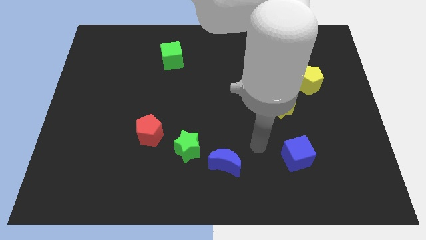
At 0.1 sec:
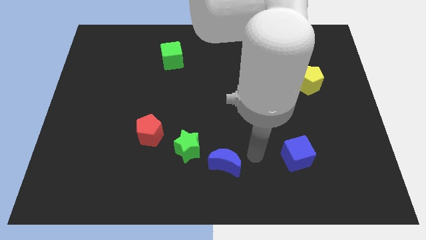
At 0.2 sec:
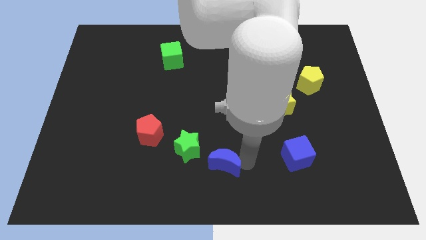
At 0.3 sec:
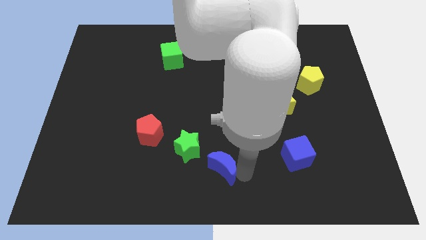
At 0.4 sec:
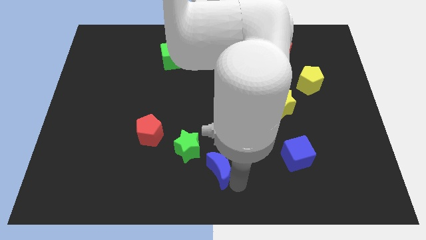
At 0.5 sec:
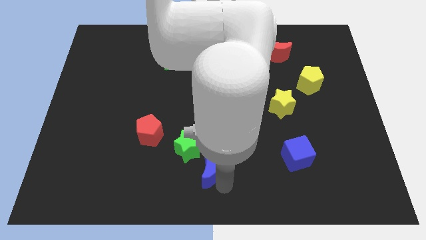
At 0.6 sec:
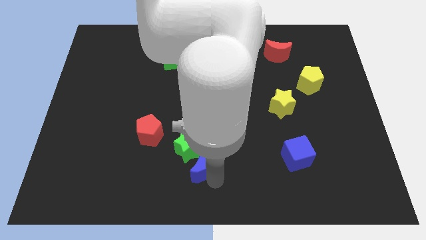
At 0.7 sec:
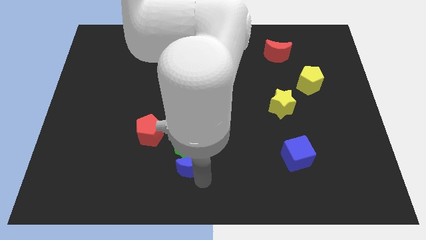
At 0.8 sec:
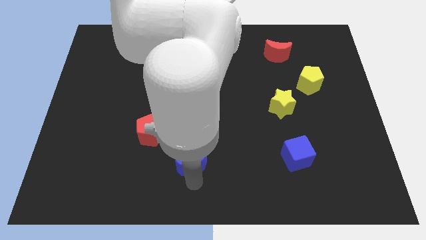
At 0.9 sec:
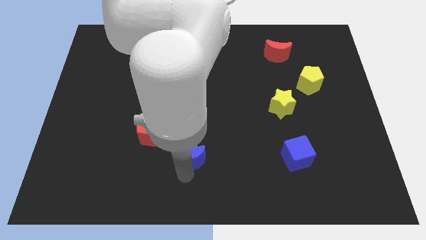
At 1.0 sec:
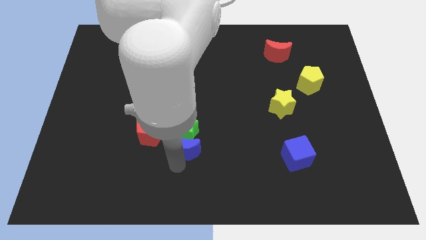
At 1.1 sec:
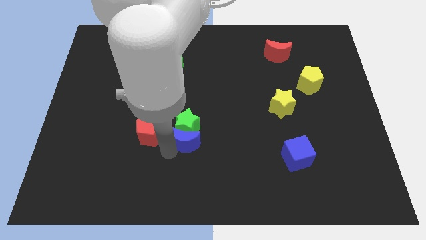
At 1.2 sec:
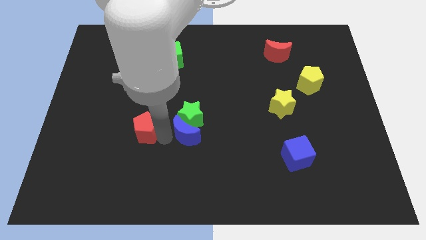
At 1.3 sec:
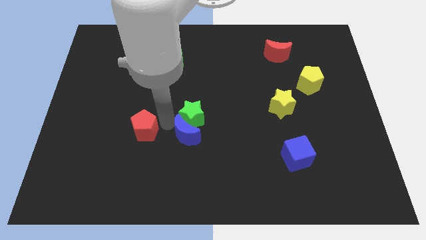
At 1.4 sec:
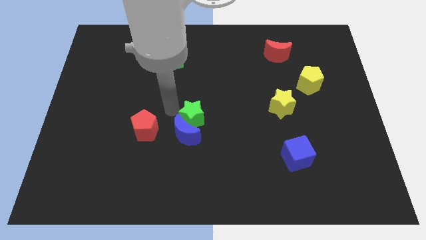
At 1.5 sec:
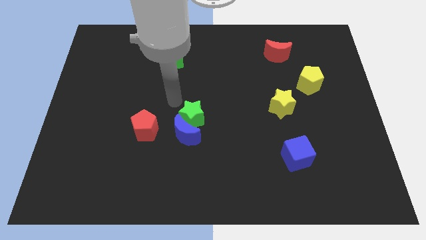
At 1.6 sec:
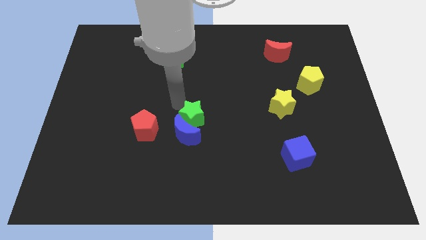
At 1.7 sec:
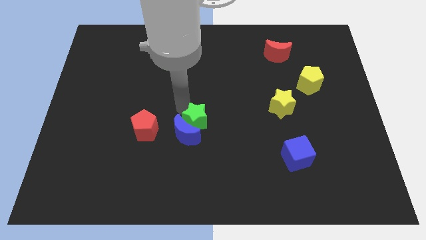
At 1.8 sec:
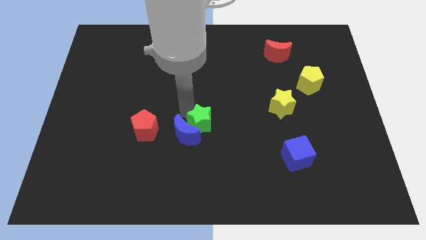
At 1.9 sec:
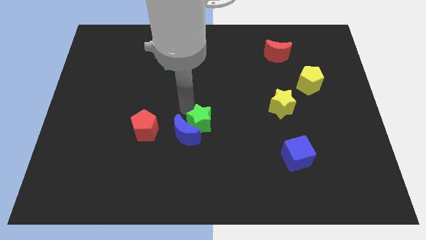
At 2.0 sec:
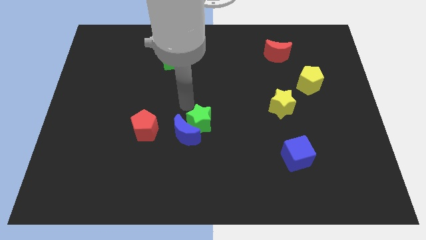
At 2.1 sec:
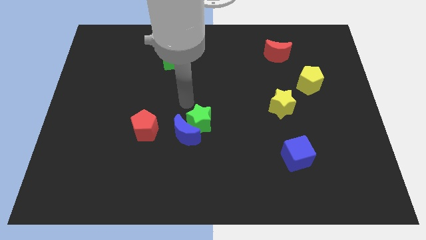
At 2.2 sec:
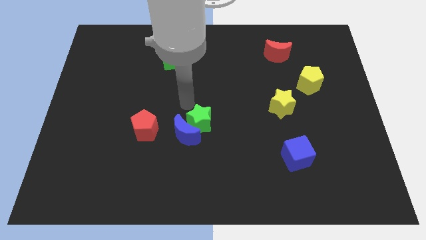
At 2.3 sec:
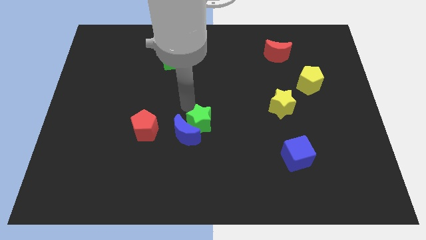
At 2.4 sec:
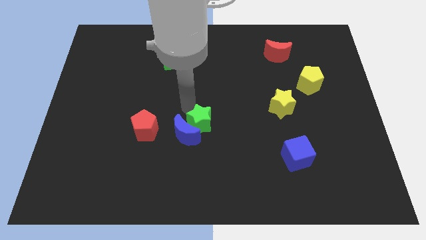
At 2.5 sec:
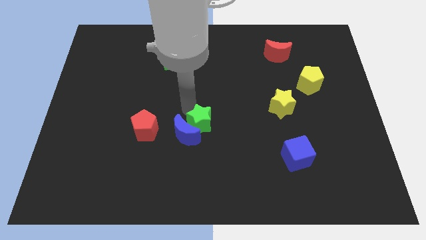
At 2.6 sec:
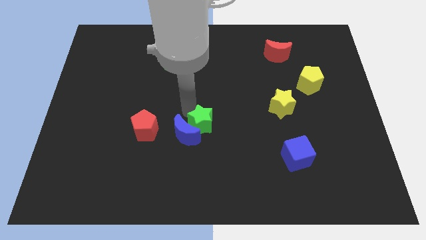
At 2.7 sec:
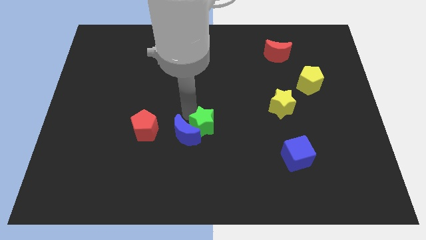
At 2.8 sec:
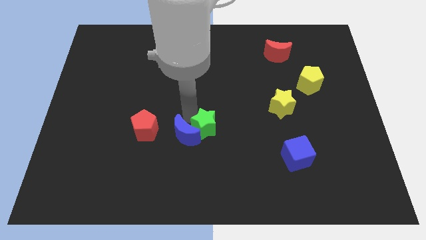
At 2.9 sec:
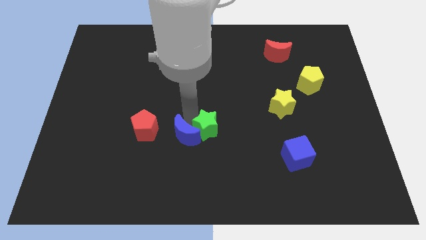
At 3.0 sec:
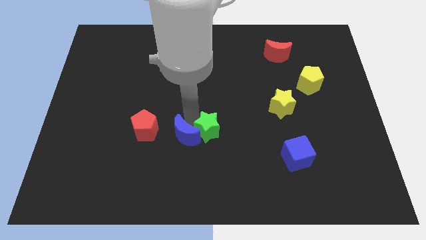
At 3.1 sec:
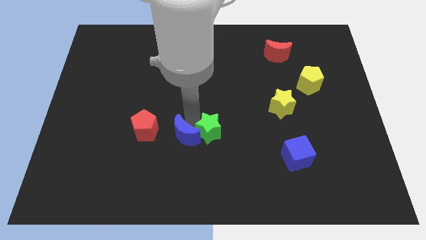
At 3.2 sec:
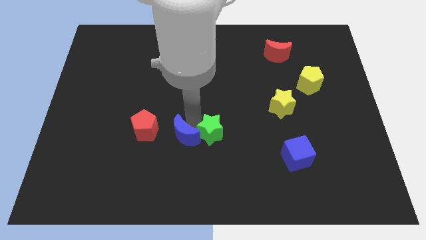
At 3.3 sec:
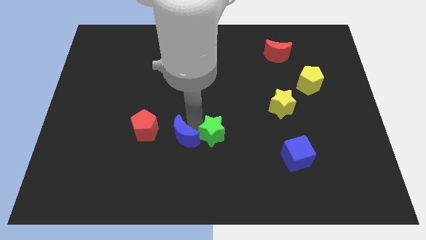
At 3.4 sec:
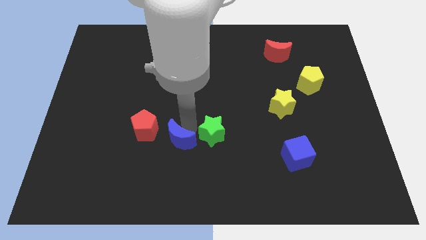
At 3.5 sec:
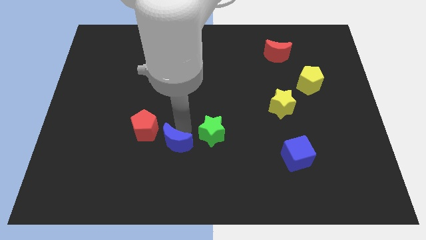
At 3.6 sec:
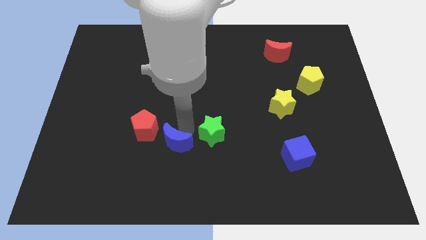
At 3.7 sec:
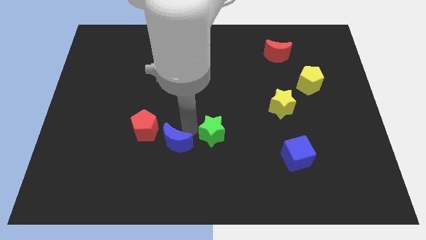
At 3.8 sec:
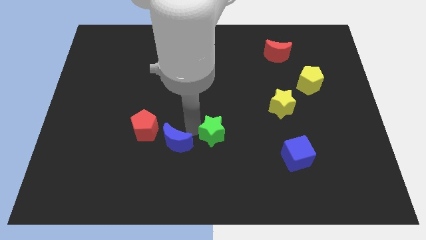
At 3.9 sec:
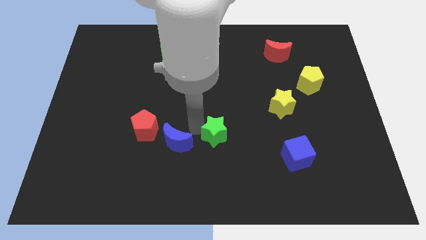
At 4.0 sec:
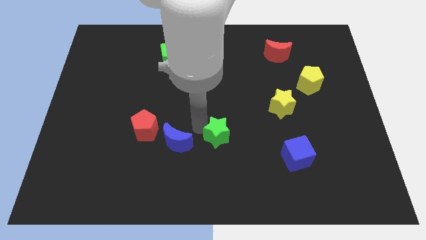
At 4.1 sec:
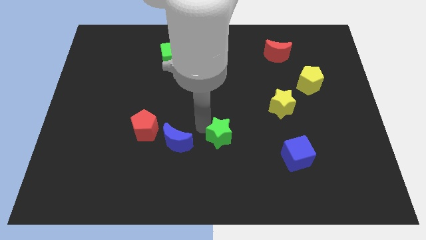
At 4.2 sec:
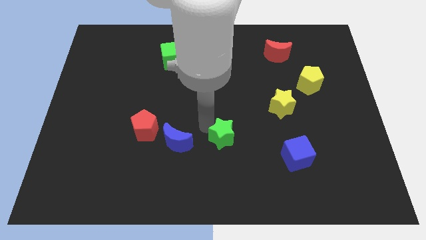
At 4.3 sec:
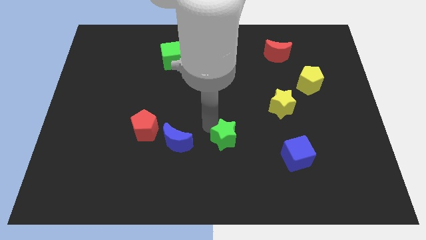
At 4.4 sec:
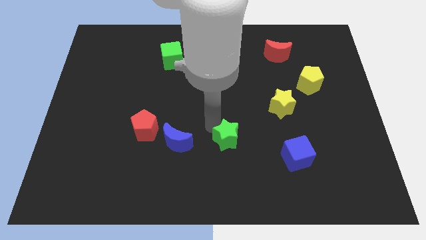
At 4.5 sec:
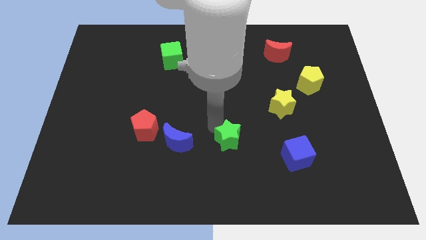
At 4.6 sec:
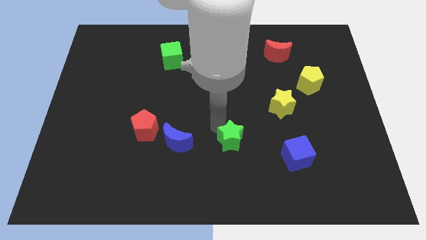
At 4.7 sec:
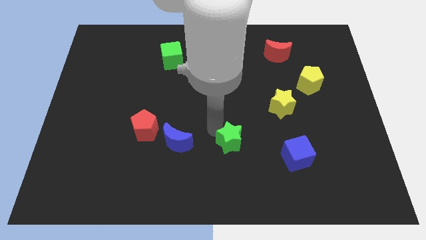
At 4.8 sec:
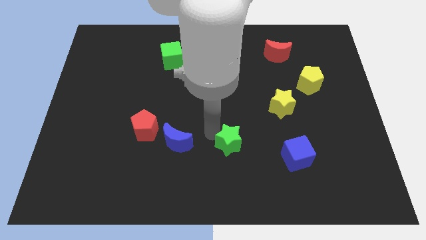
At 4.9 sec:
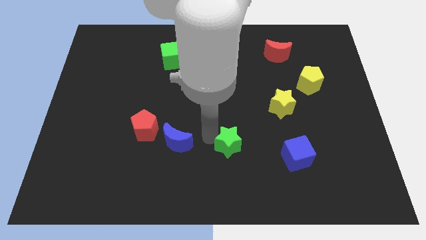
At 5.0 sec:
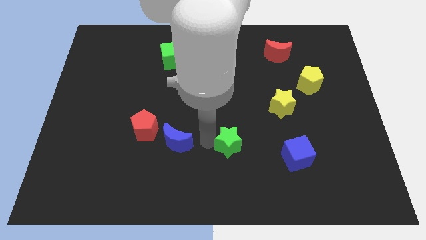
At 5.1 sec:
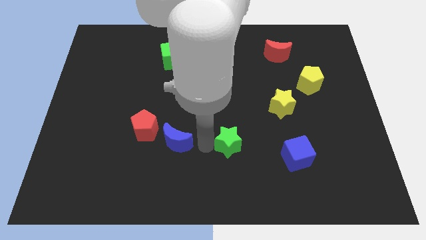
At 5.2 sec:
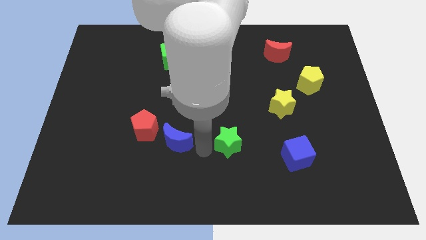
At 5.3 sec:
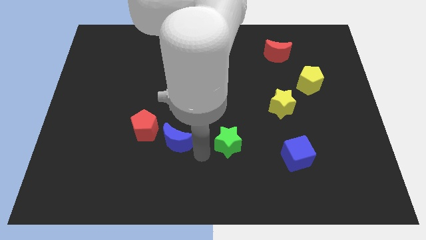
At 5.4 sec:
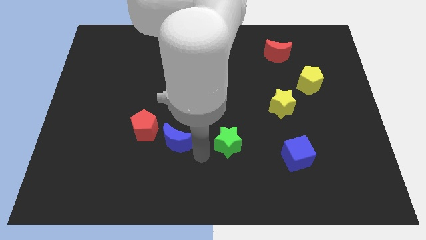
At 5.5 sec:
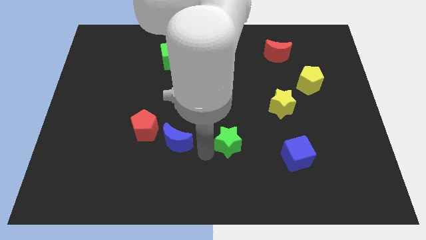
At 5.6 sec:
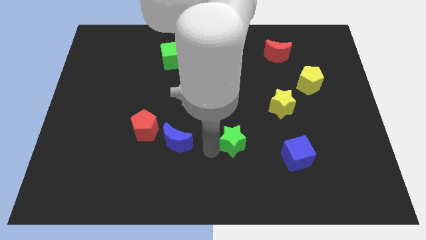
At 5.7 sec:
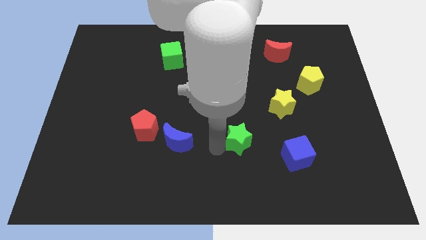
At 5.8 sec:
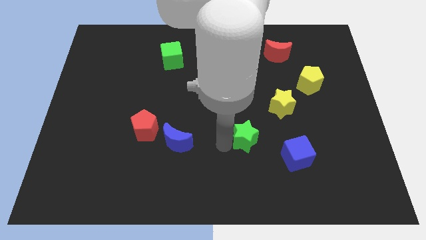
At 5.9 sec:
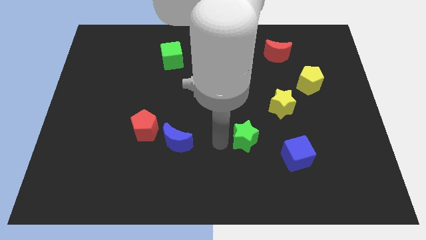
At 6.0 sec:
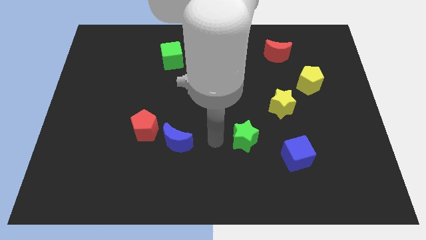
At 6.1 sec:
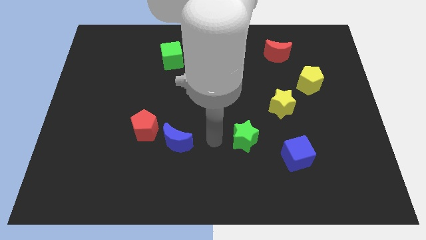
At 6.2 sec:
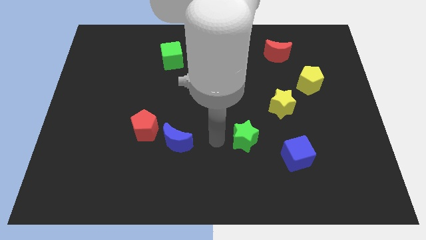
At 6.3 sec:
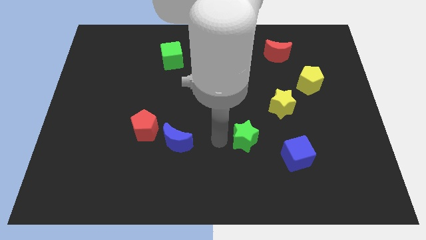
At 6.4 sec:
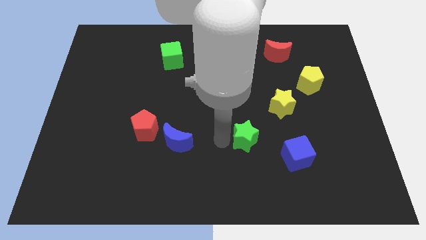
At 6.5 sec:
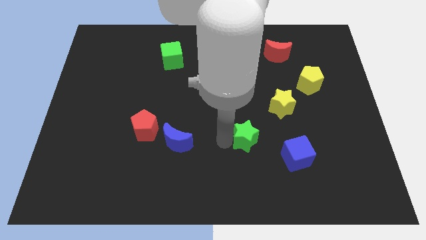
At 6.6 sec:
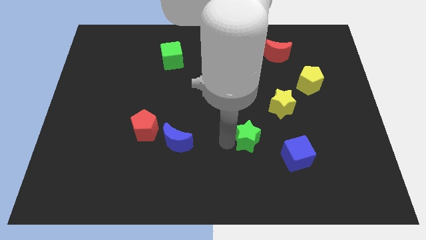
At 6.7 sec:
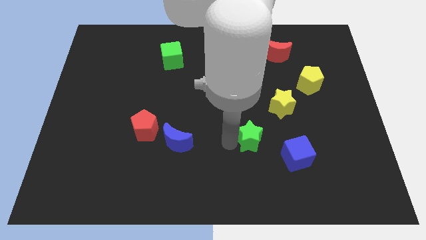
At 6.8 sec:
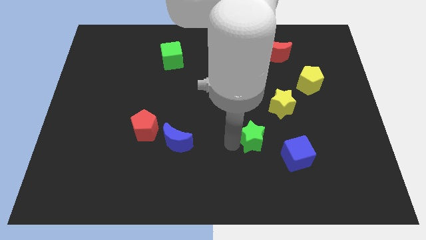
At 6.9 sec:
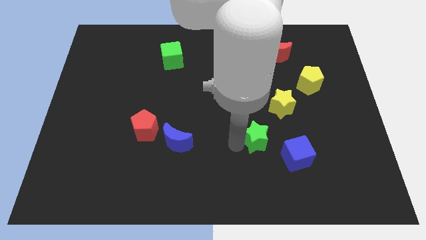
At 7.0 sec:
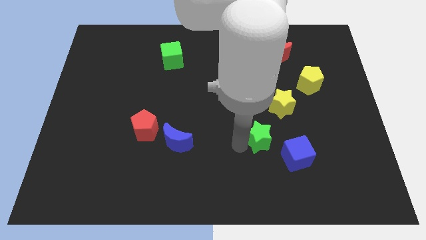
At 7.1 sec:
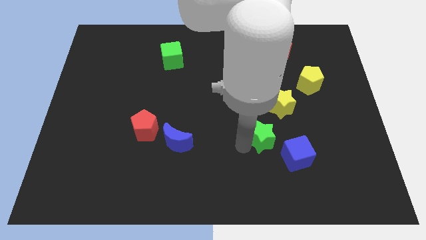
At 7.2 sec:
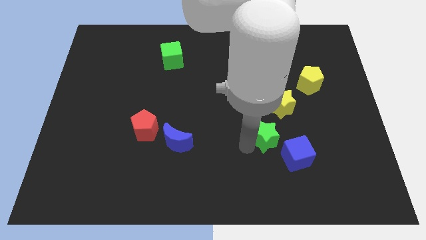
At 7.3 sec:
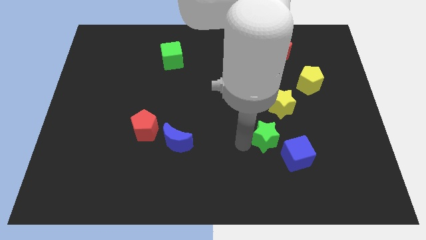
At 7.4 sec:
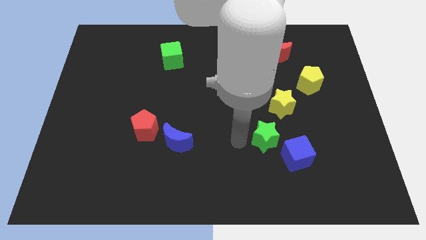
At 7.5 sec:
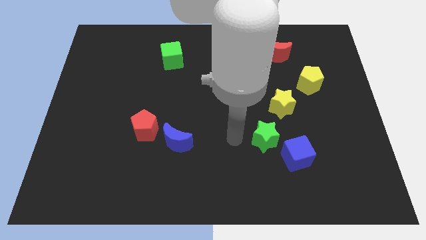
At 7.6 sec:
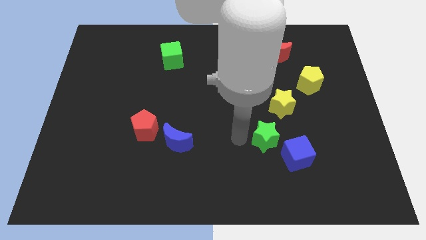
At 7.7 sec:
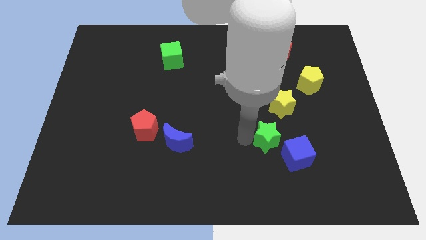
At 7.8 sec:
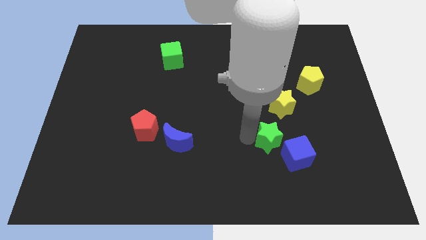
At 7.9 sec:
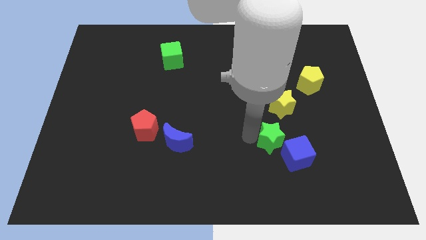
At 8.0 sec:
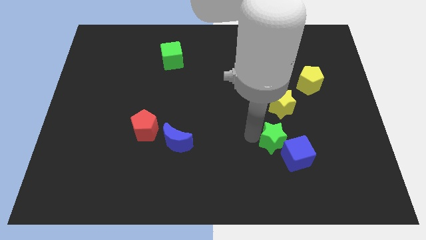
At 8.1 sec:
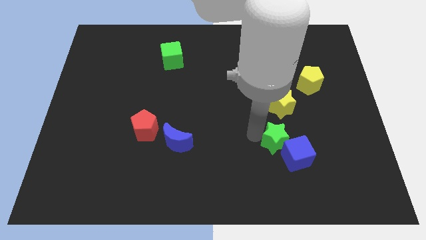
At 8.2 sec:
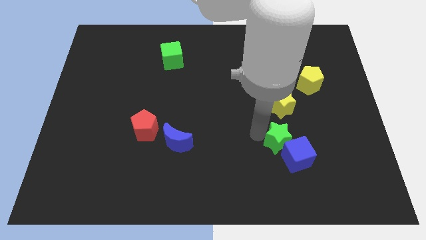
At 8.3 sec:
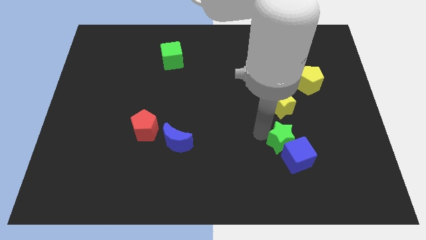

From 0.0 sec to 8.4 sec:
push the green star to the right
